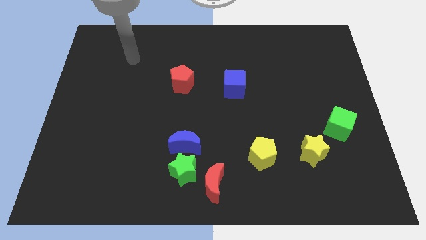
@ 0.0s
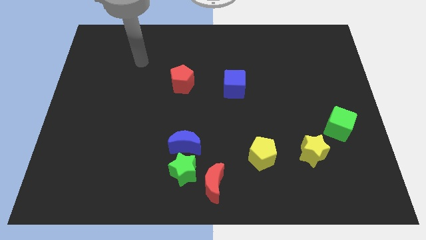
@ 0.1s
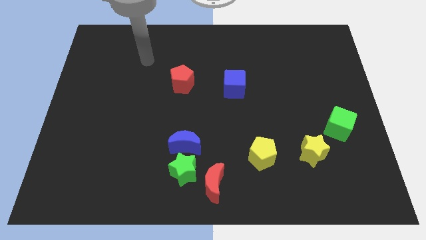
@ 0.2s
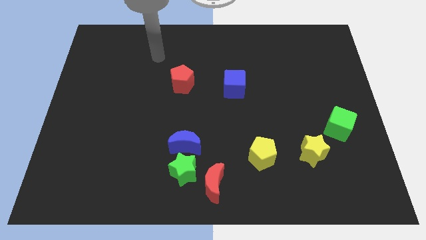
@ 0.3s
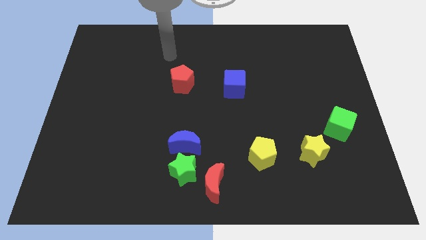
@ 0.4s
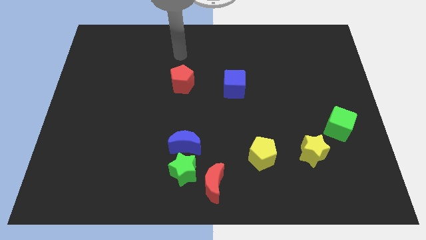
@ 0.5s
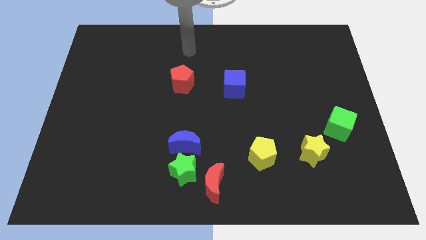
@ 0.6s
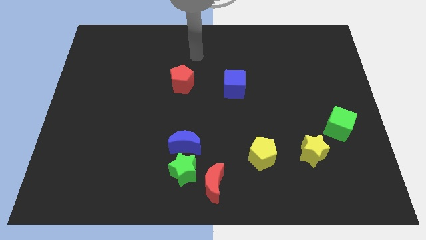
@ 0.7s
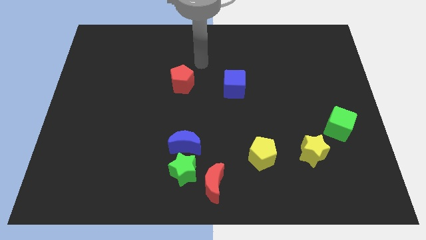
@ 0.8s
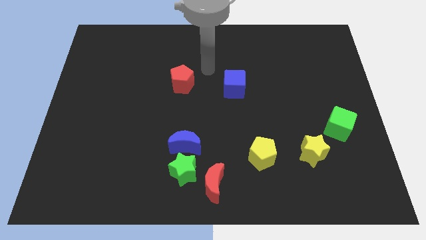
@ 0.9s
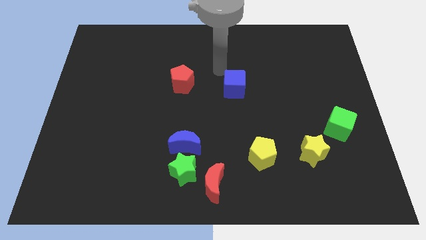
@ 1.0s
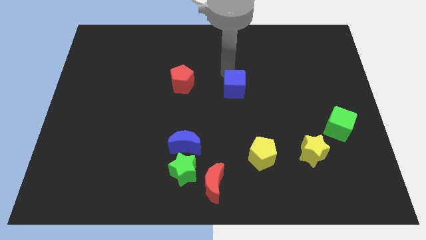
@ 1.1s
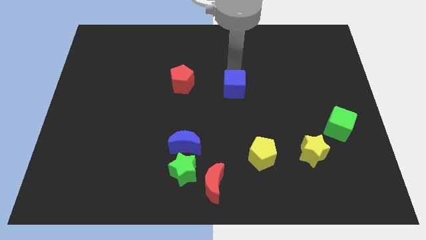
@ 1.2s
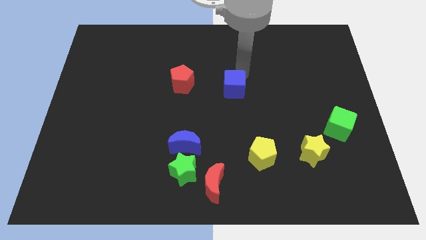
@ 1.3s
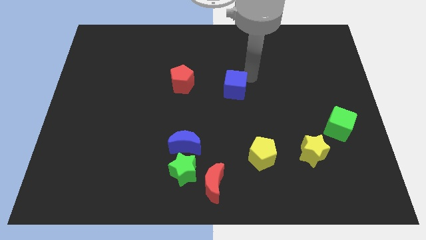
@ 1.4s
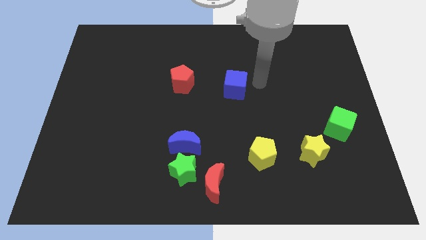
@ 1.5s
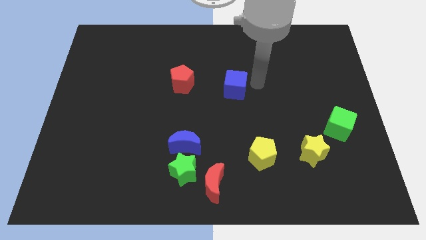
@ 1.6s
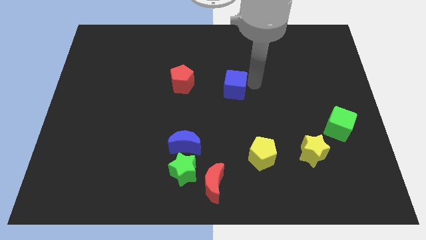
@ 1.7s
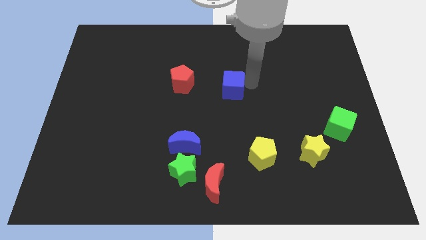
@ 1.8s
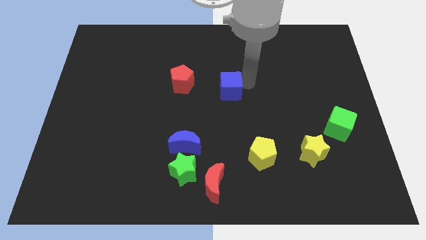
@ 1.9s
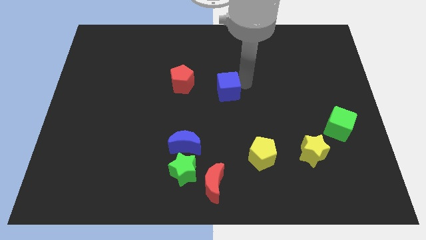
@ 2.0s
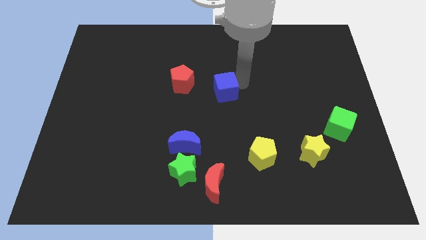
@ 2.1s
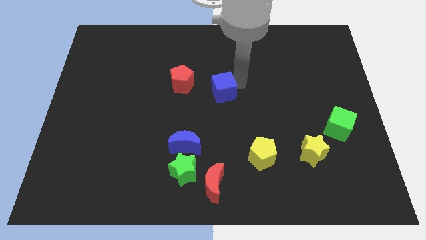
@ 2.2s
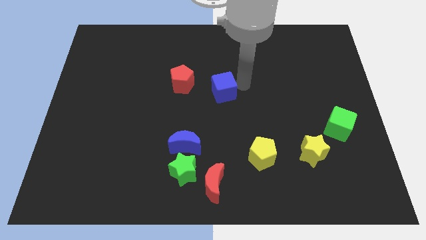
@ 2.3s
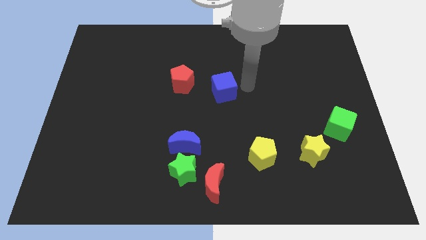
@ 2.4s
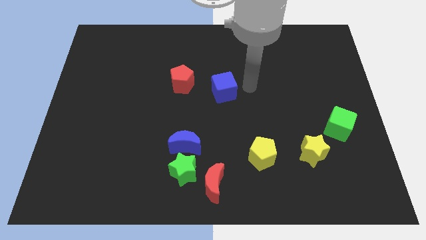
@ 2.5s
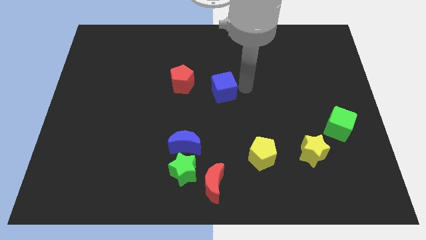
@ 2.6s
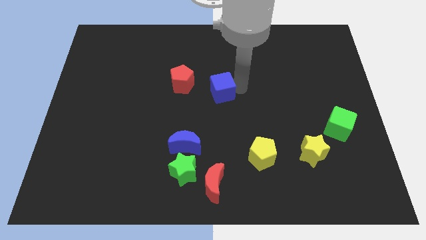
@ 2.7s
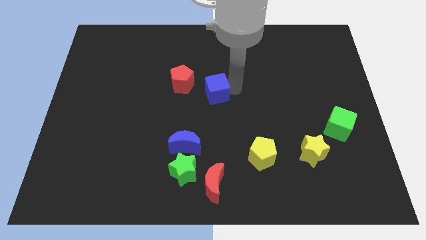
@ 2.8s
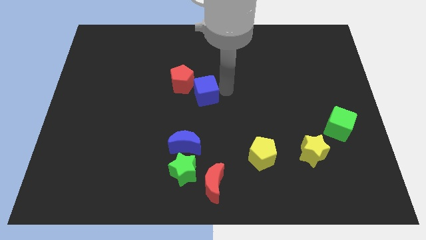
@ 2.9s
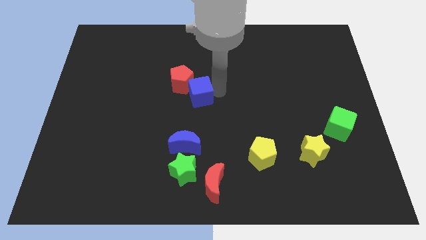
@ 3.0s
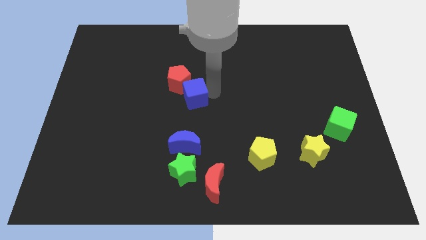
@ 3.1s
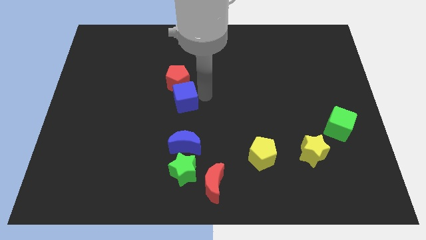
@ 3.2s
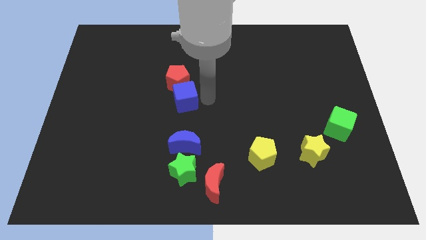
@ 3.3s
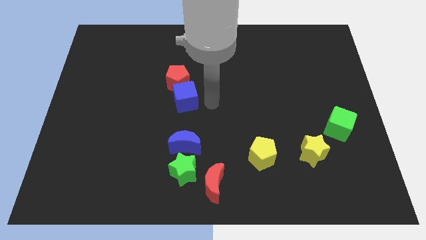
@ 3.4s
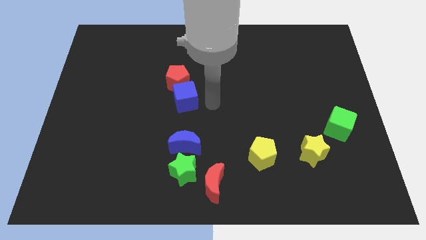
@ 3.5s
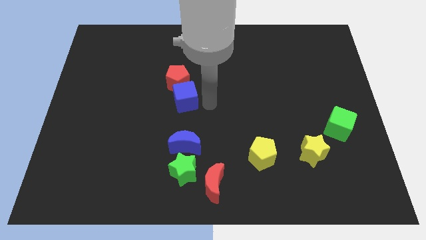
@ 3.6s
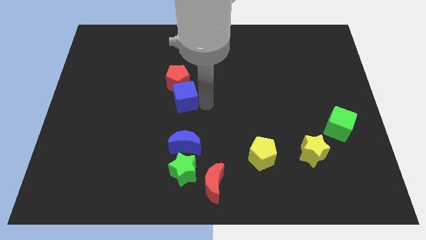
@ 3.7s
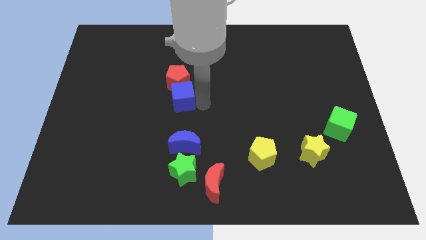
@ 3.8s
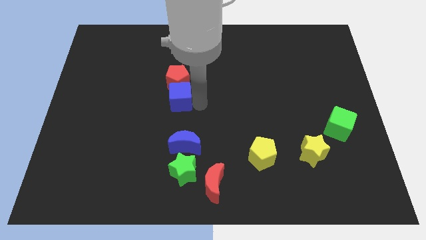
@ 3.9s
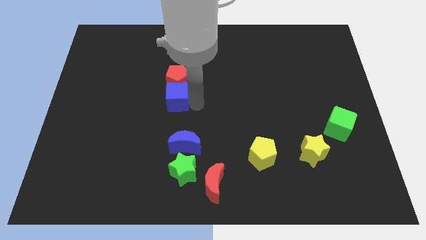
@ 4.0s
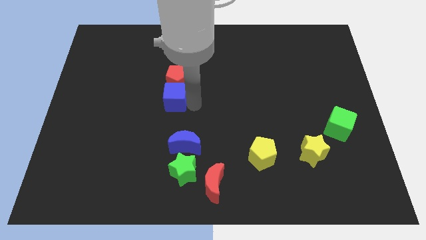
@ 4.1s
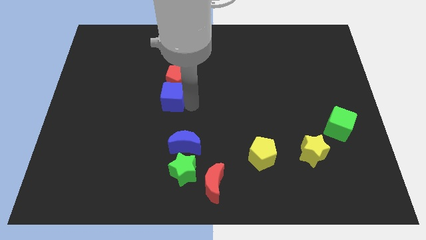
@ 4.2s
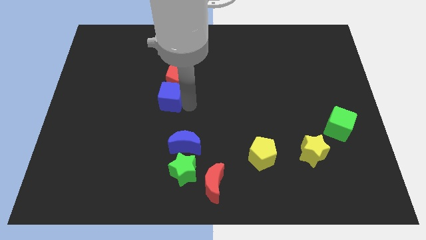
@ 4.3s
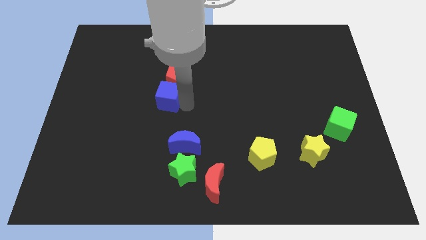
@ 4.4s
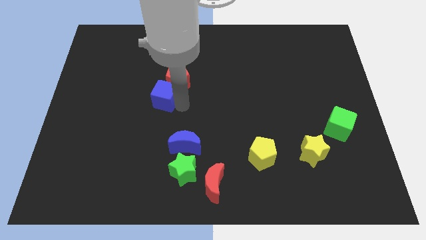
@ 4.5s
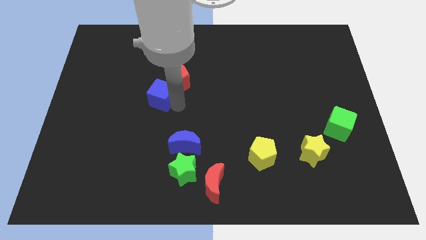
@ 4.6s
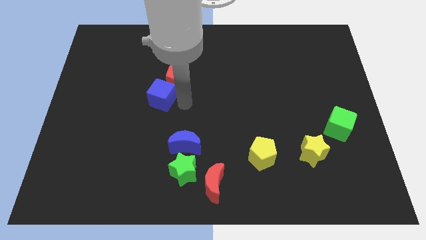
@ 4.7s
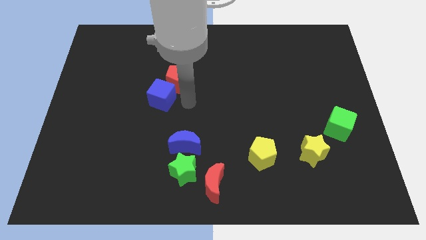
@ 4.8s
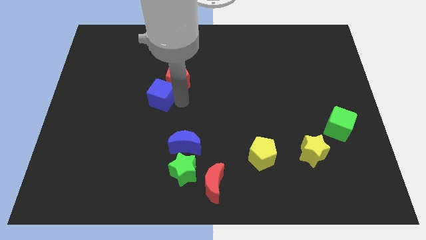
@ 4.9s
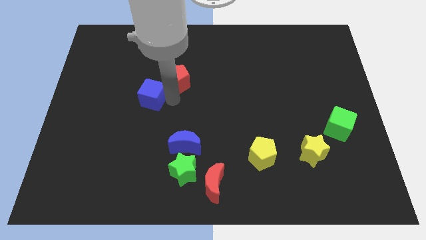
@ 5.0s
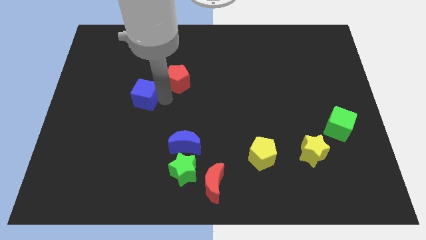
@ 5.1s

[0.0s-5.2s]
push the blue cube to the left

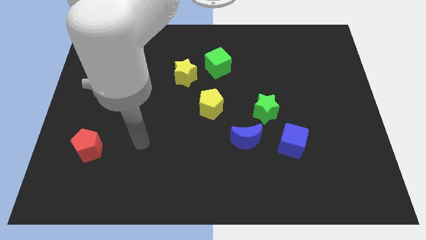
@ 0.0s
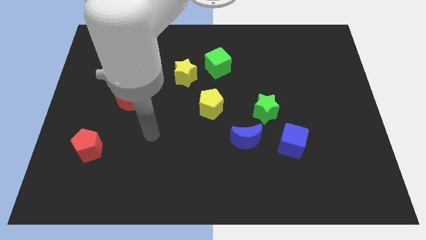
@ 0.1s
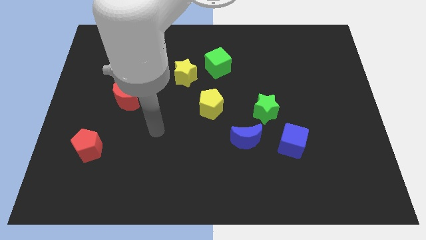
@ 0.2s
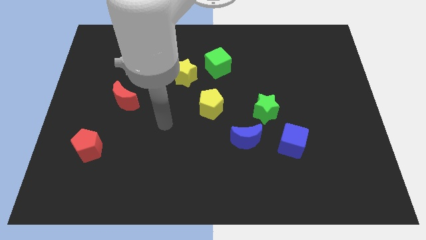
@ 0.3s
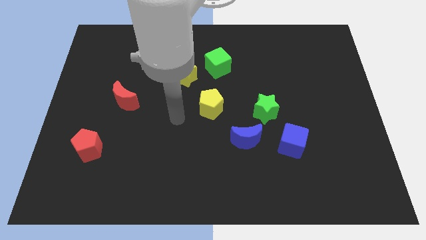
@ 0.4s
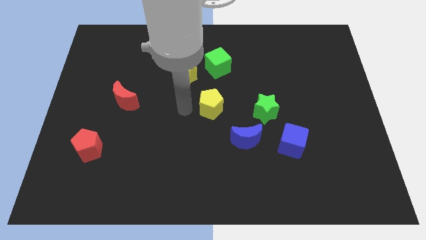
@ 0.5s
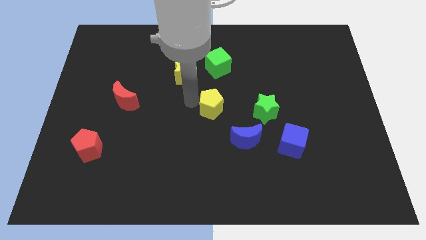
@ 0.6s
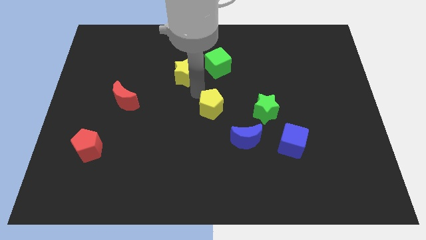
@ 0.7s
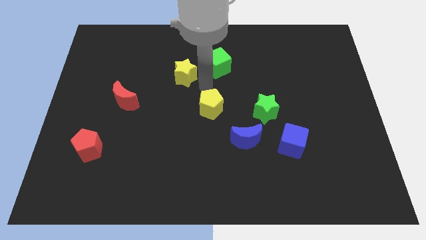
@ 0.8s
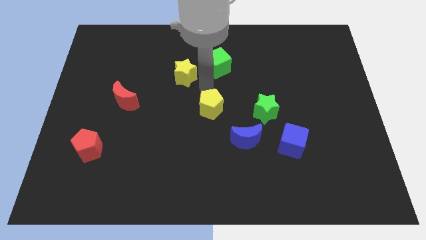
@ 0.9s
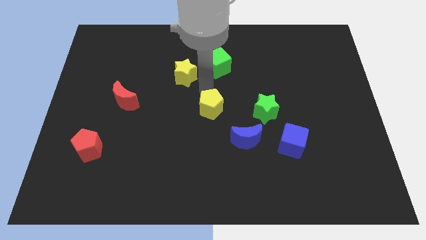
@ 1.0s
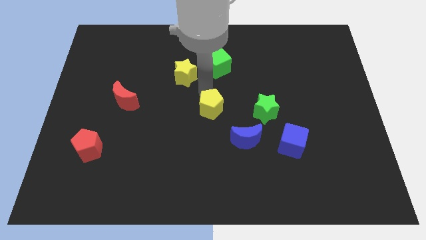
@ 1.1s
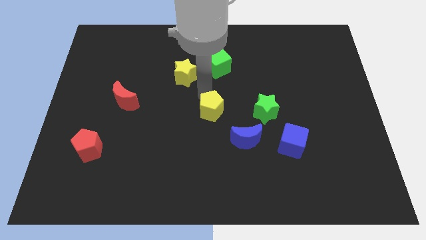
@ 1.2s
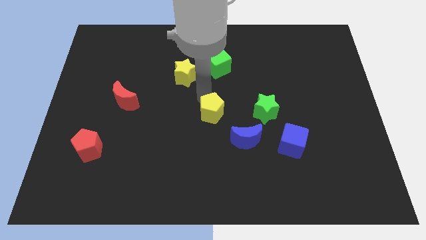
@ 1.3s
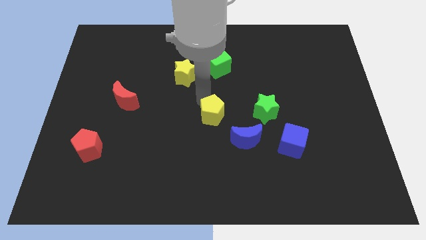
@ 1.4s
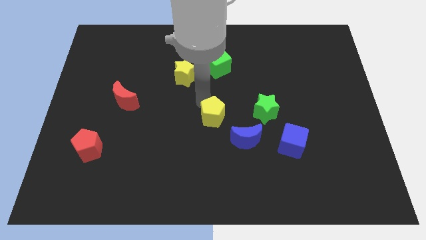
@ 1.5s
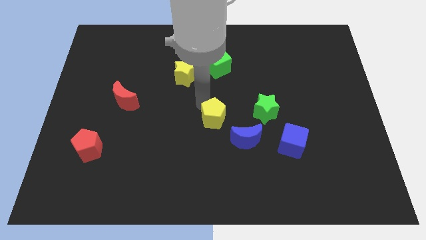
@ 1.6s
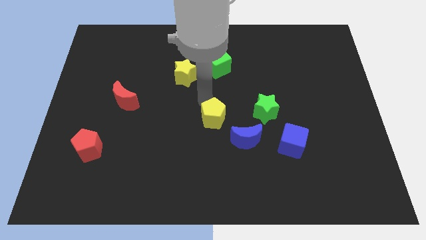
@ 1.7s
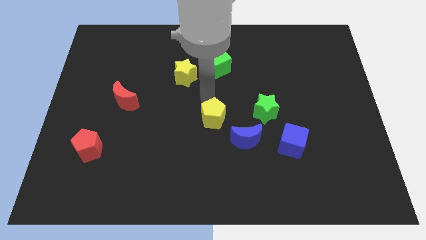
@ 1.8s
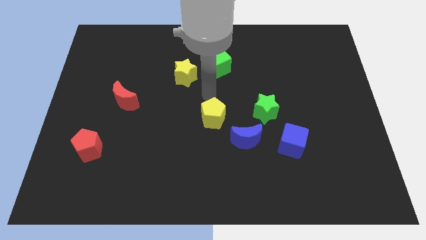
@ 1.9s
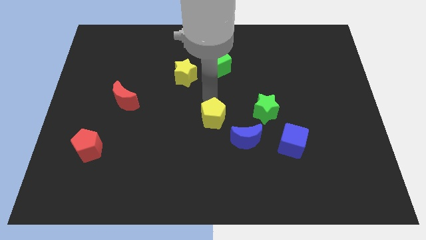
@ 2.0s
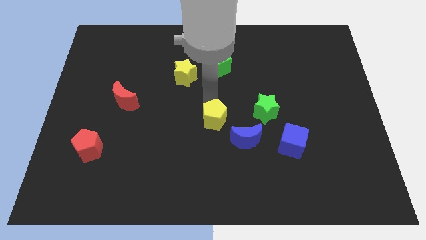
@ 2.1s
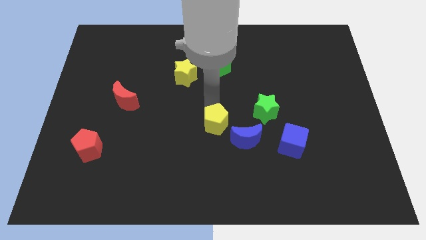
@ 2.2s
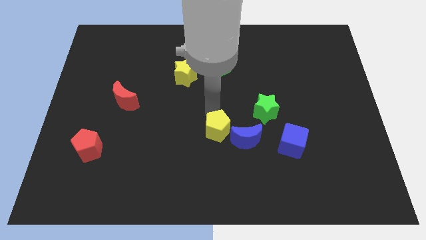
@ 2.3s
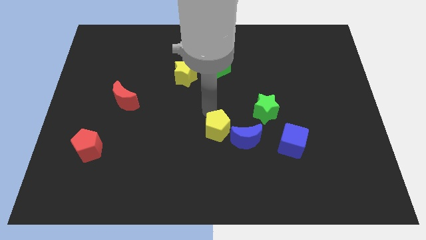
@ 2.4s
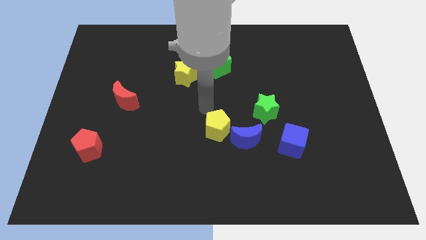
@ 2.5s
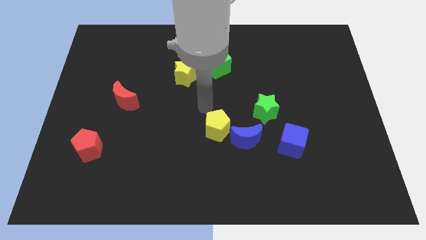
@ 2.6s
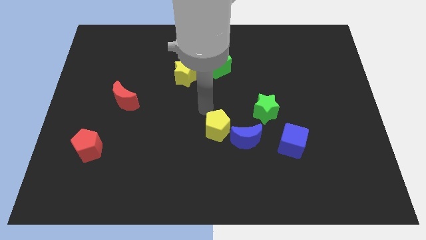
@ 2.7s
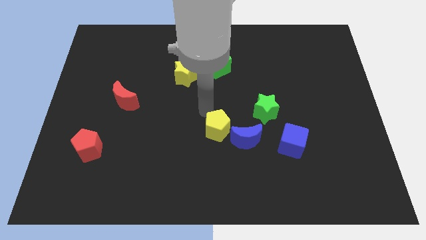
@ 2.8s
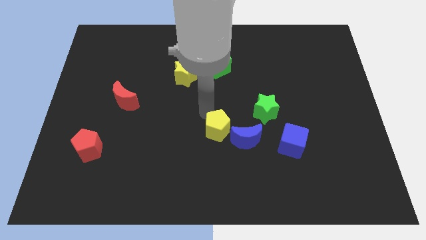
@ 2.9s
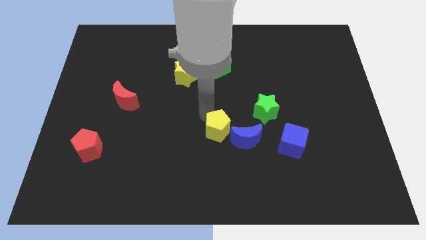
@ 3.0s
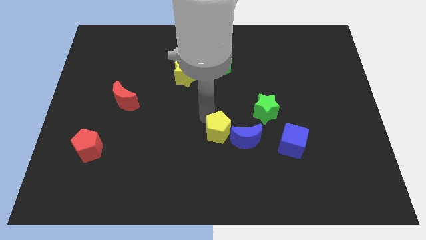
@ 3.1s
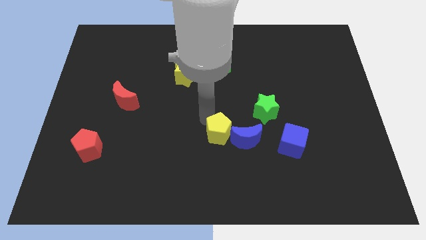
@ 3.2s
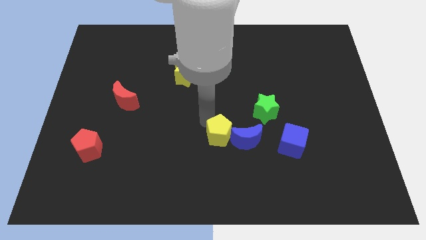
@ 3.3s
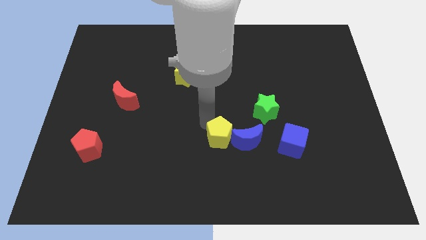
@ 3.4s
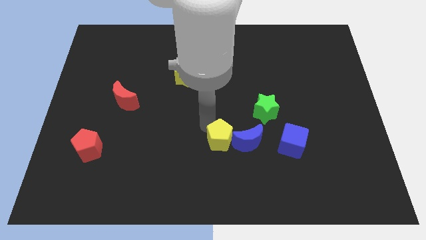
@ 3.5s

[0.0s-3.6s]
slightly push the yellow pentagon diagonally downwards and right
